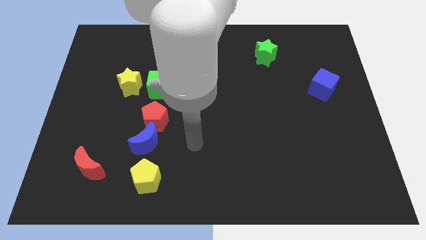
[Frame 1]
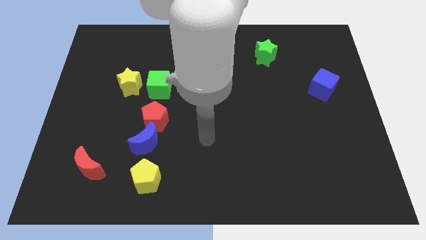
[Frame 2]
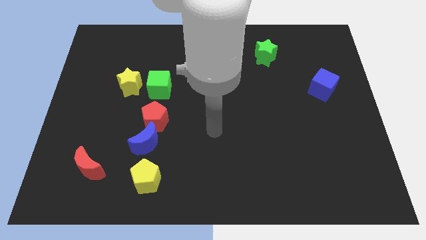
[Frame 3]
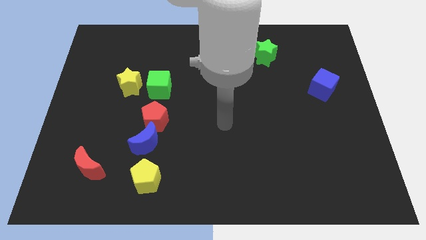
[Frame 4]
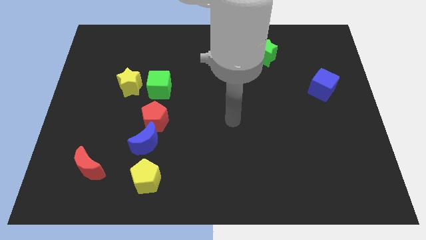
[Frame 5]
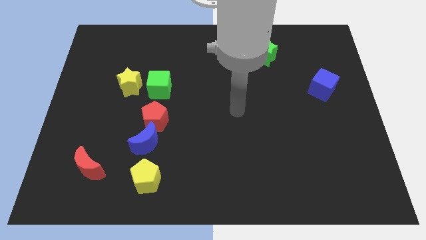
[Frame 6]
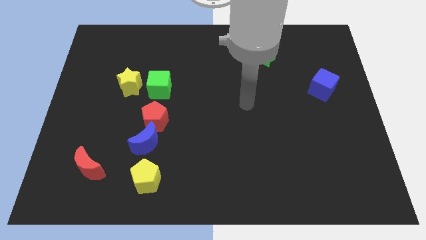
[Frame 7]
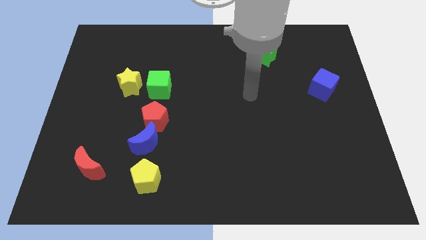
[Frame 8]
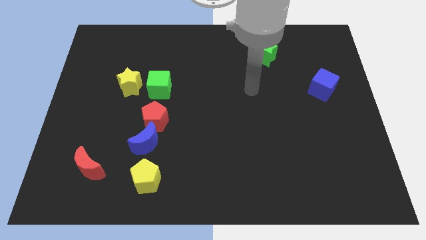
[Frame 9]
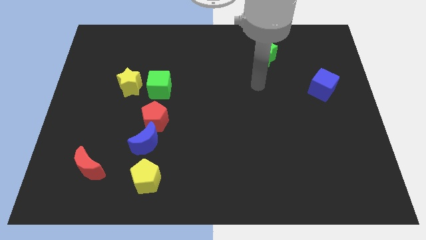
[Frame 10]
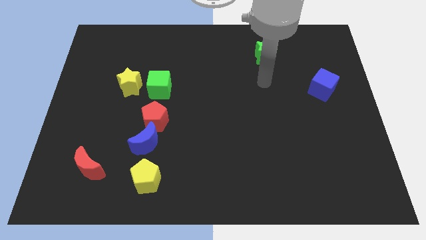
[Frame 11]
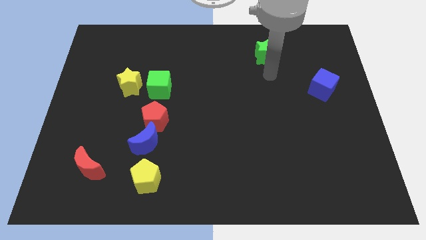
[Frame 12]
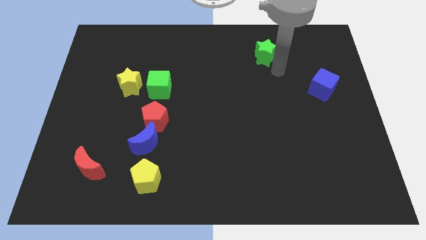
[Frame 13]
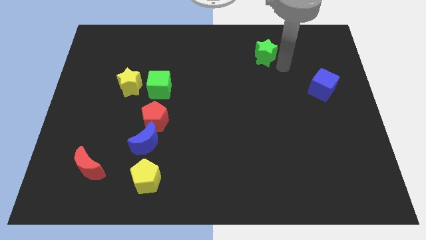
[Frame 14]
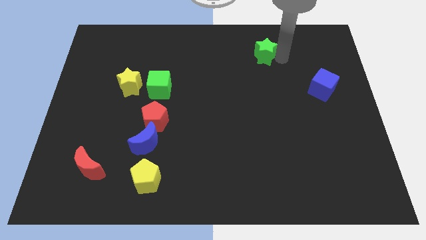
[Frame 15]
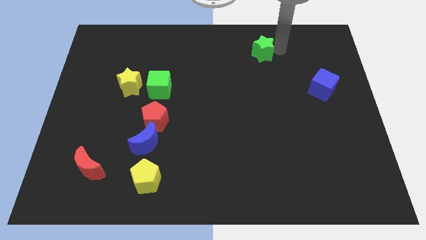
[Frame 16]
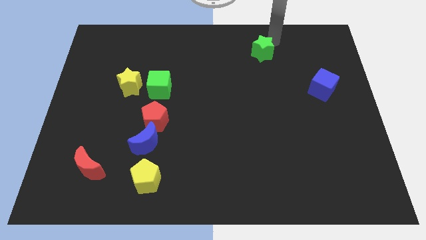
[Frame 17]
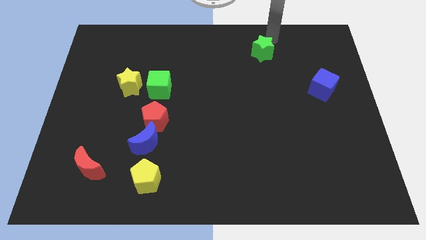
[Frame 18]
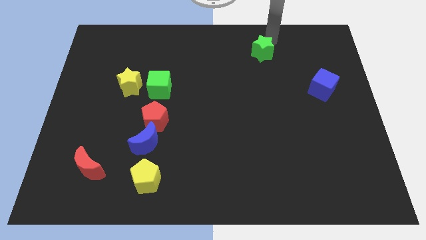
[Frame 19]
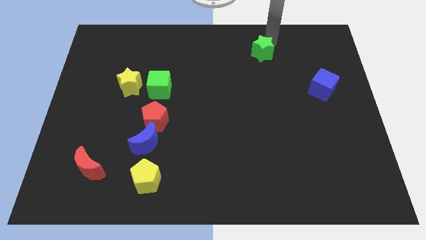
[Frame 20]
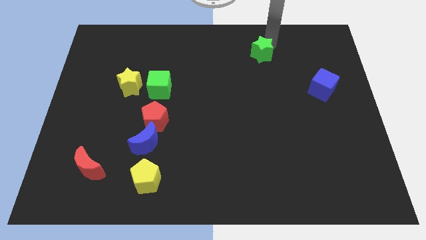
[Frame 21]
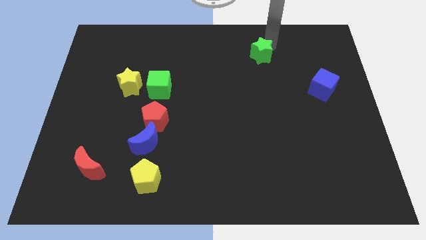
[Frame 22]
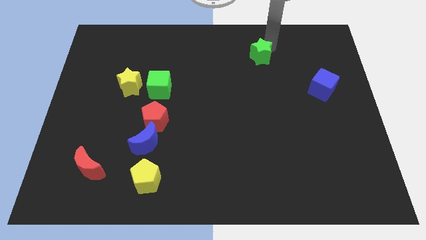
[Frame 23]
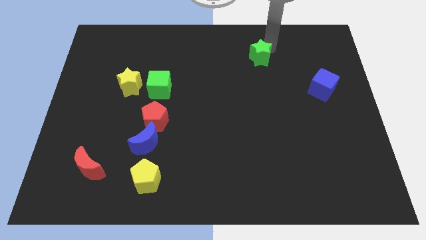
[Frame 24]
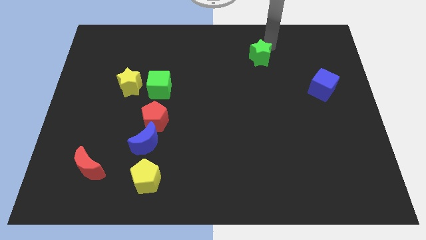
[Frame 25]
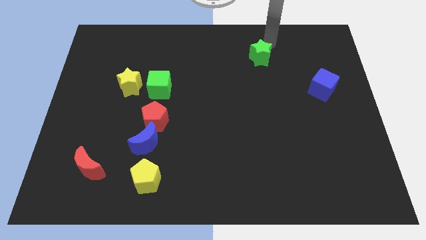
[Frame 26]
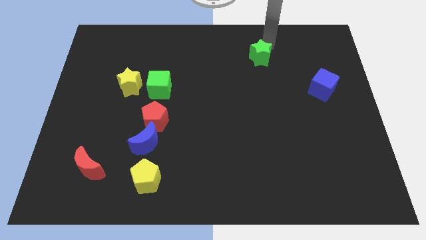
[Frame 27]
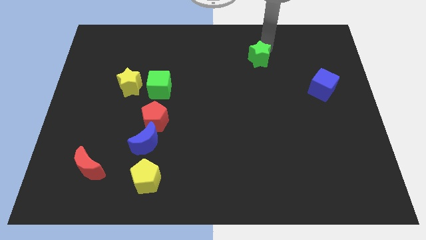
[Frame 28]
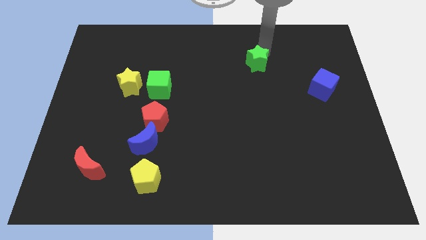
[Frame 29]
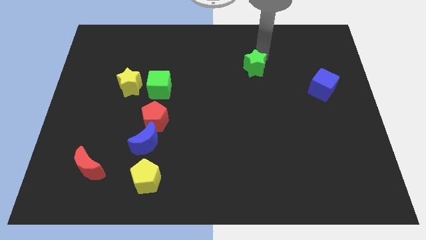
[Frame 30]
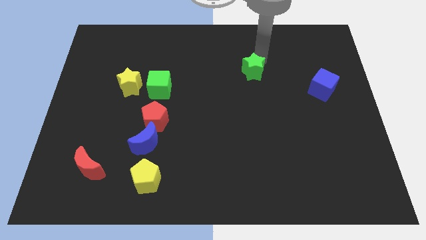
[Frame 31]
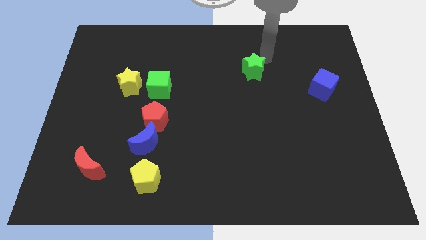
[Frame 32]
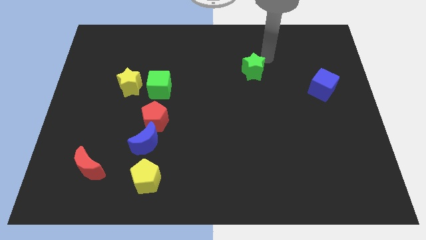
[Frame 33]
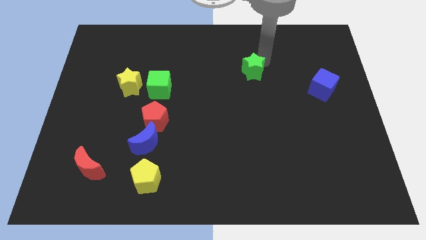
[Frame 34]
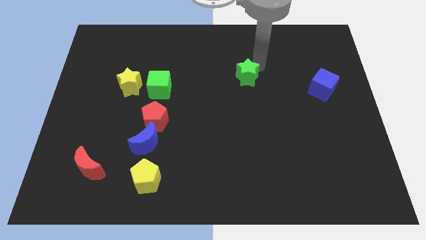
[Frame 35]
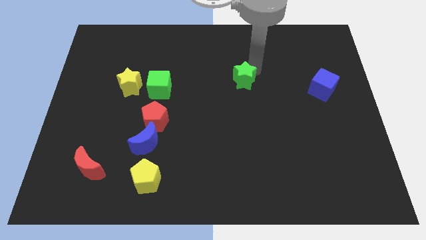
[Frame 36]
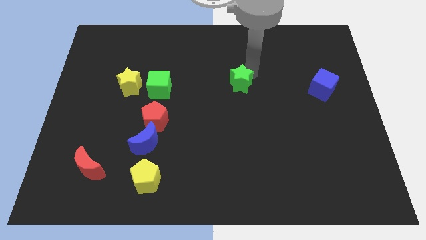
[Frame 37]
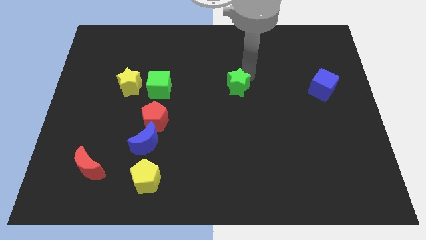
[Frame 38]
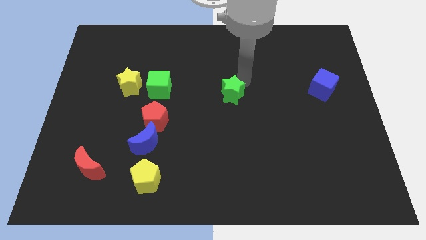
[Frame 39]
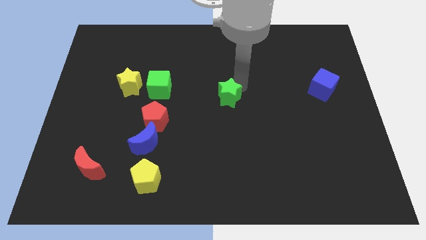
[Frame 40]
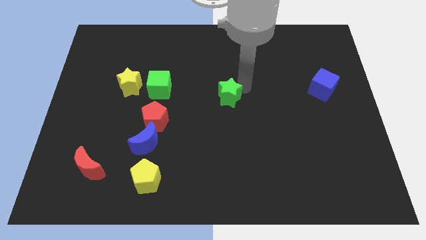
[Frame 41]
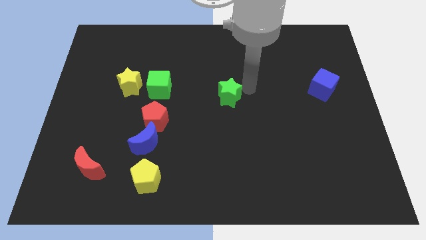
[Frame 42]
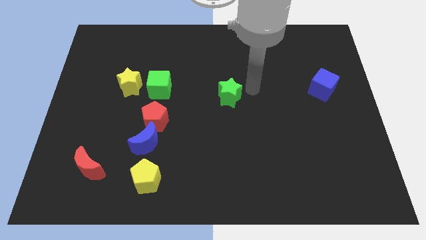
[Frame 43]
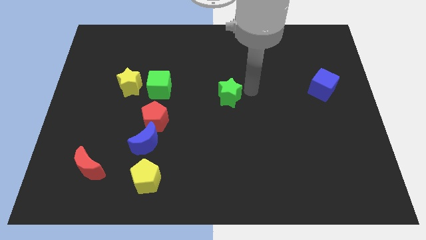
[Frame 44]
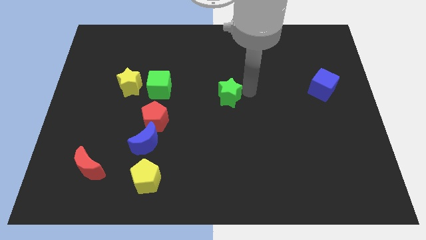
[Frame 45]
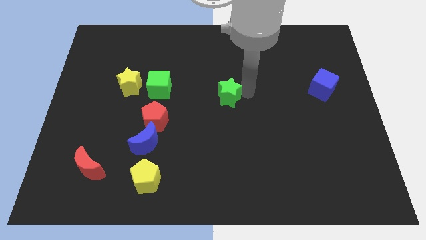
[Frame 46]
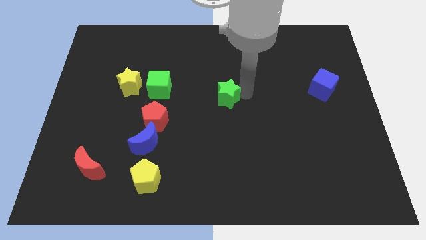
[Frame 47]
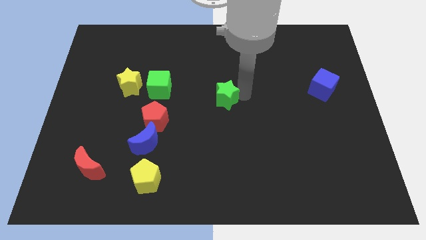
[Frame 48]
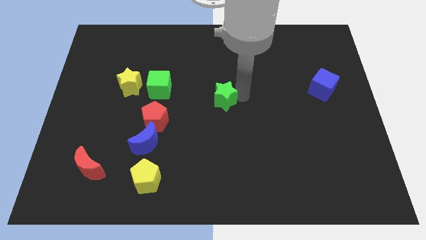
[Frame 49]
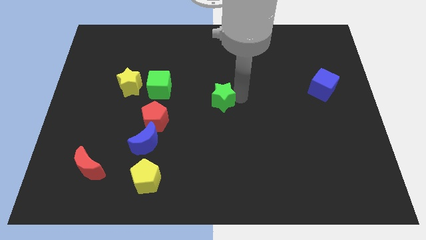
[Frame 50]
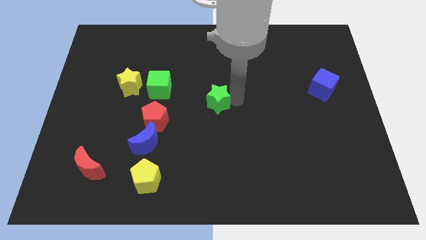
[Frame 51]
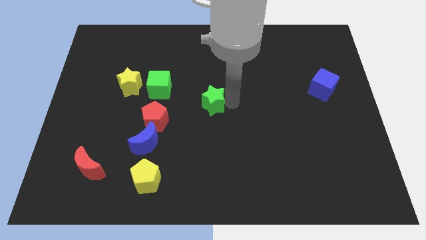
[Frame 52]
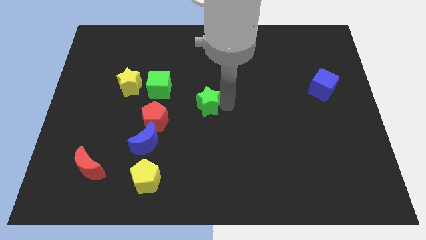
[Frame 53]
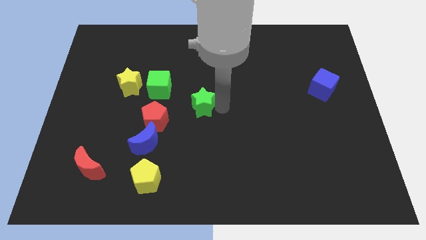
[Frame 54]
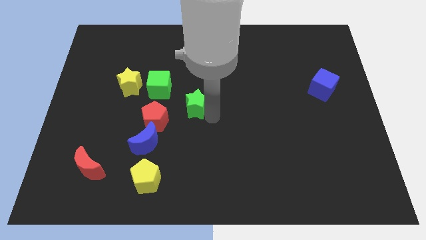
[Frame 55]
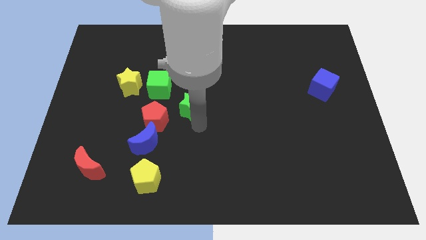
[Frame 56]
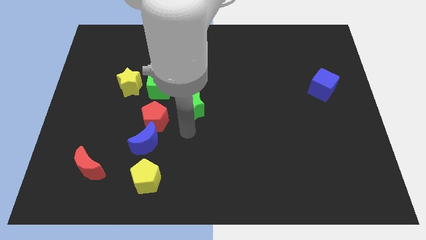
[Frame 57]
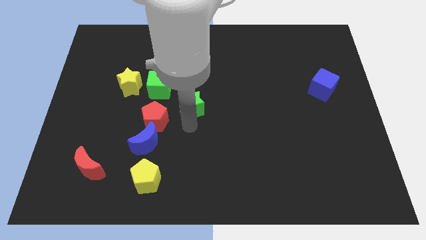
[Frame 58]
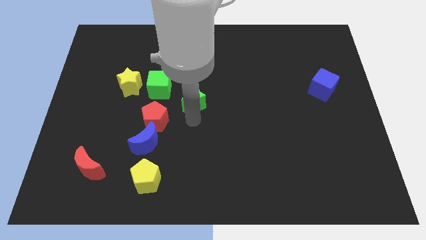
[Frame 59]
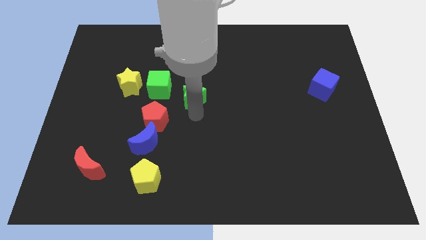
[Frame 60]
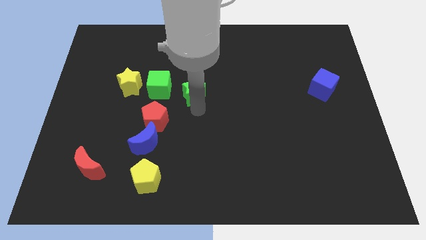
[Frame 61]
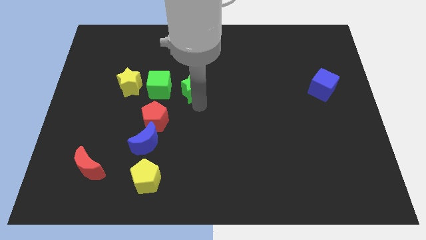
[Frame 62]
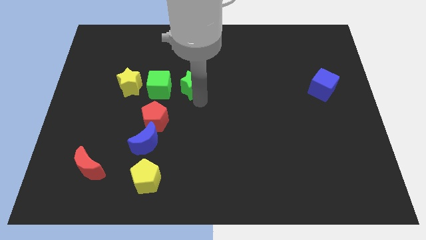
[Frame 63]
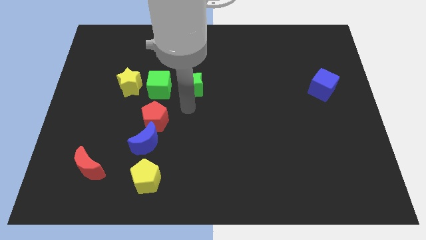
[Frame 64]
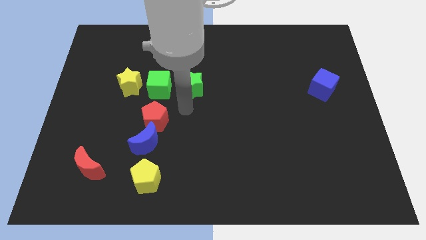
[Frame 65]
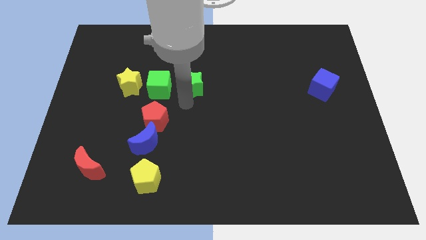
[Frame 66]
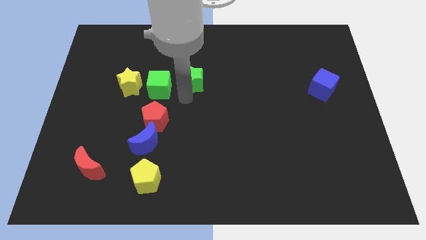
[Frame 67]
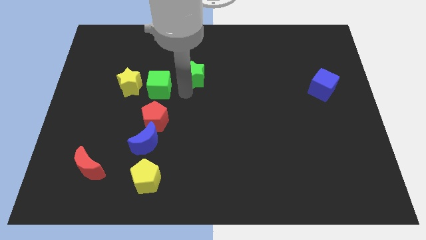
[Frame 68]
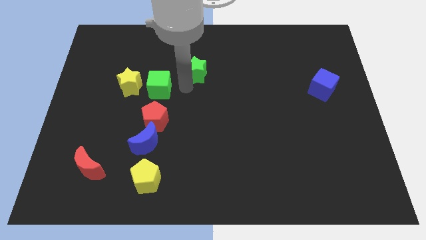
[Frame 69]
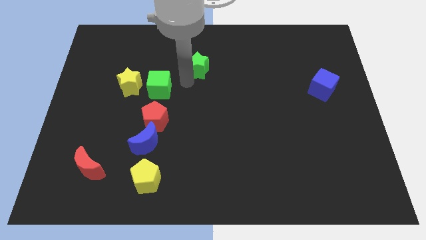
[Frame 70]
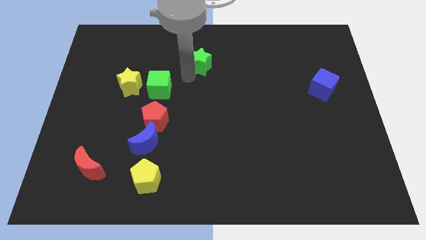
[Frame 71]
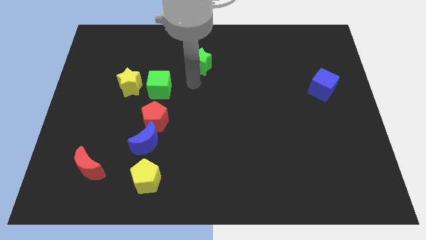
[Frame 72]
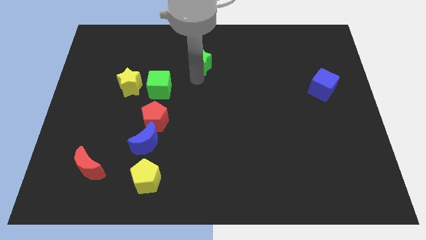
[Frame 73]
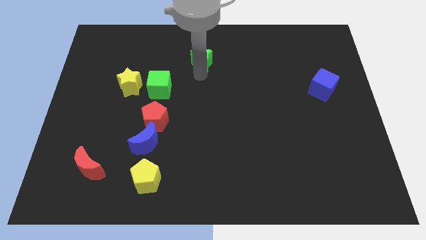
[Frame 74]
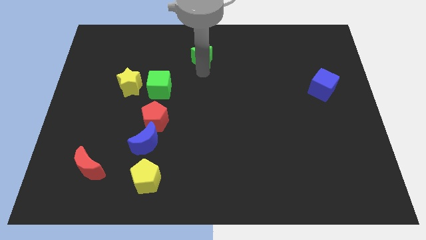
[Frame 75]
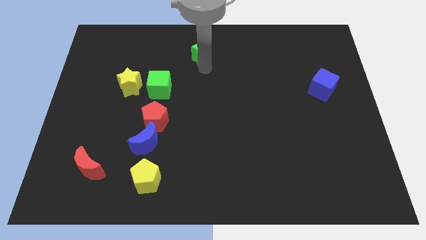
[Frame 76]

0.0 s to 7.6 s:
push the green star to the top
